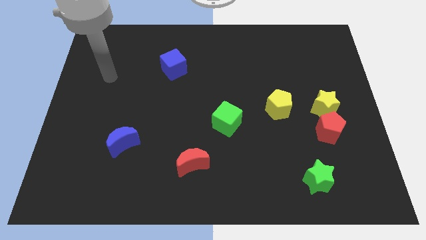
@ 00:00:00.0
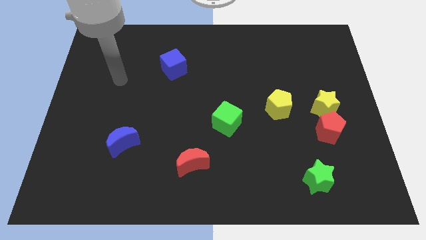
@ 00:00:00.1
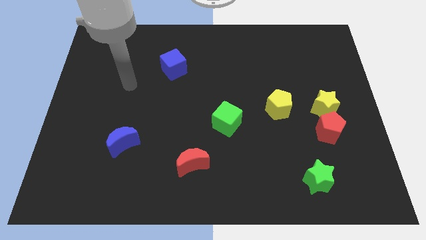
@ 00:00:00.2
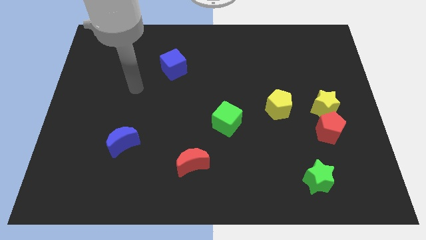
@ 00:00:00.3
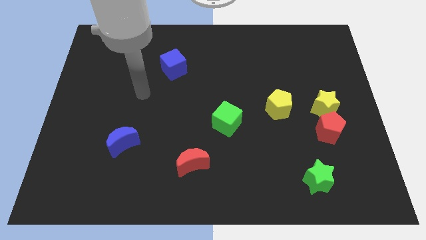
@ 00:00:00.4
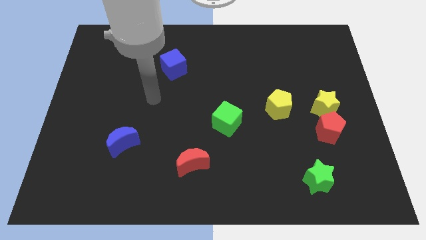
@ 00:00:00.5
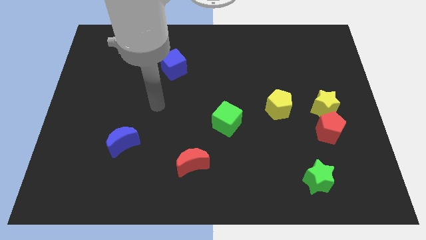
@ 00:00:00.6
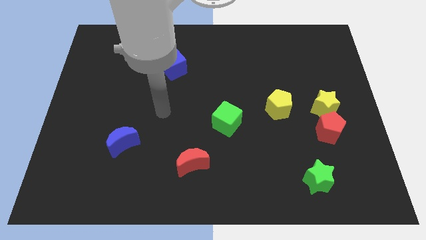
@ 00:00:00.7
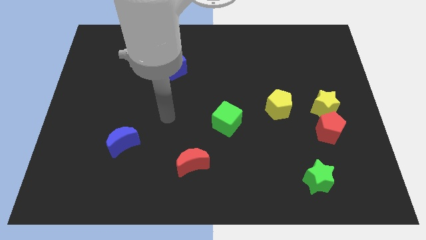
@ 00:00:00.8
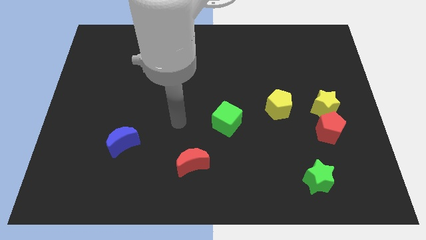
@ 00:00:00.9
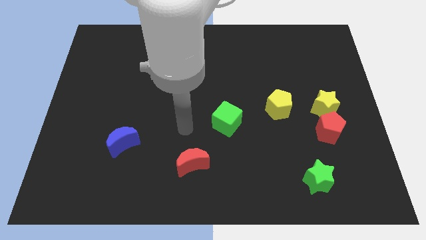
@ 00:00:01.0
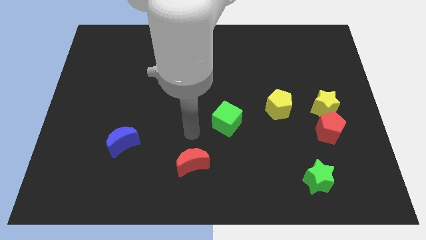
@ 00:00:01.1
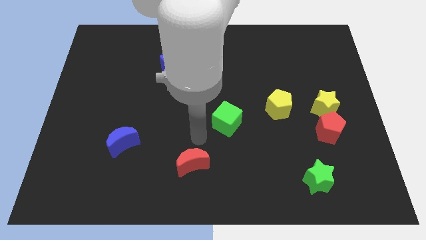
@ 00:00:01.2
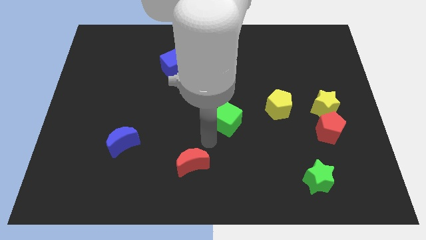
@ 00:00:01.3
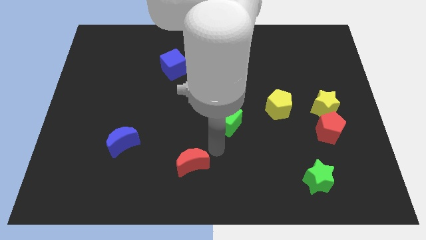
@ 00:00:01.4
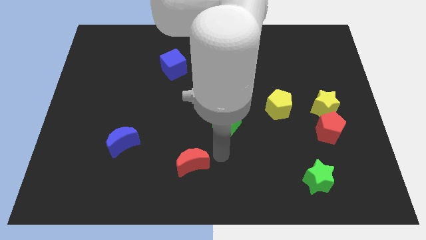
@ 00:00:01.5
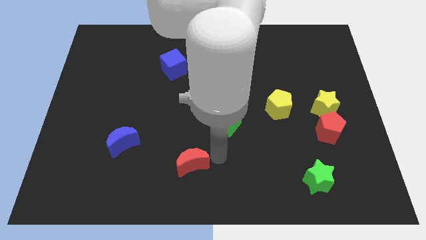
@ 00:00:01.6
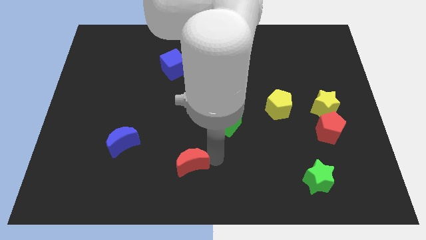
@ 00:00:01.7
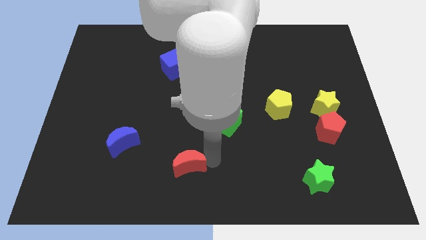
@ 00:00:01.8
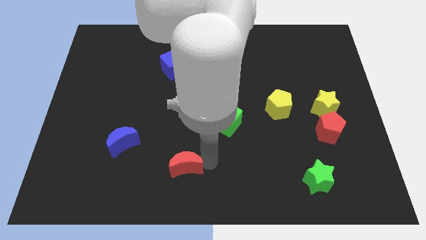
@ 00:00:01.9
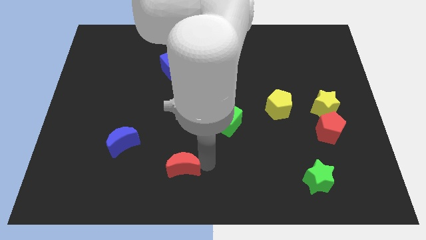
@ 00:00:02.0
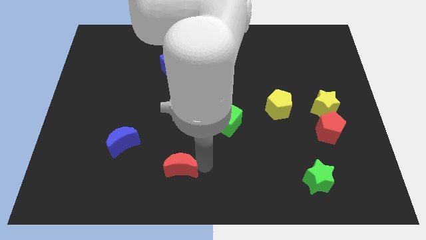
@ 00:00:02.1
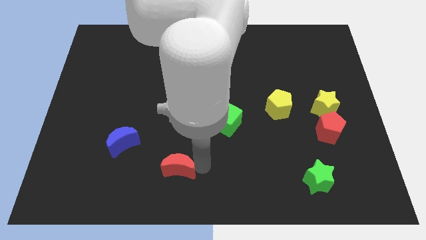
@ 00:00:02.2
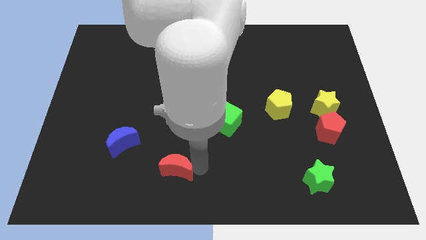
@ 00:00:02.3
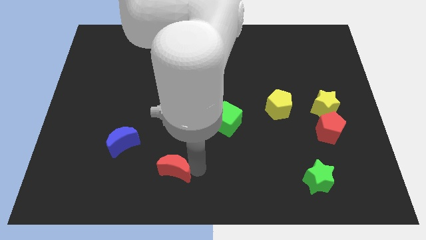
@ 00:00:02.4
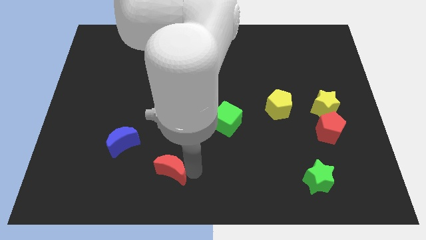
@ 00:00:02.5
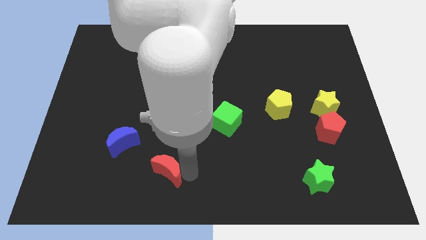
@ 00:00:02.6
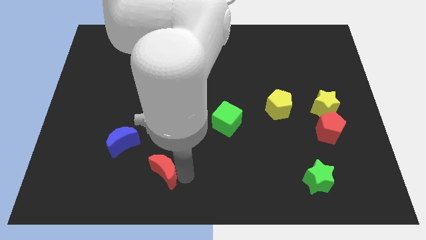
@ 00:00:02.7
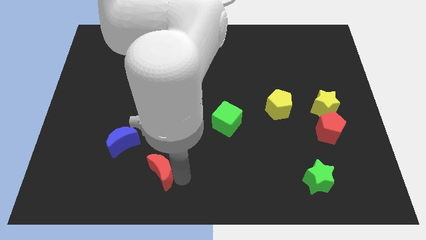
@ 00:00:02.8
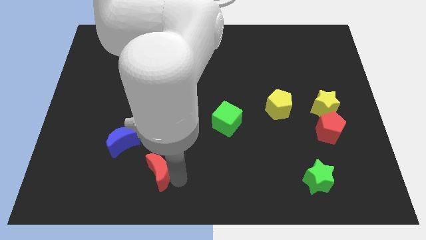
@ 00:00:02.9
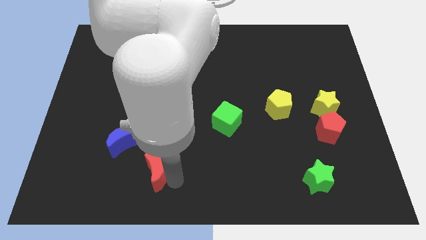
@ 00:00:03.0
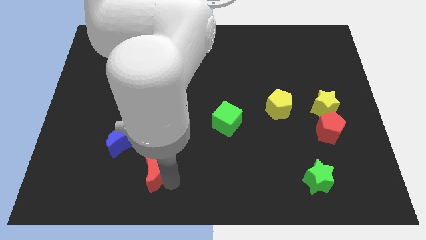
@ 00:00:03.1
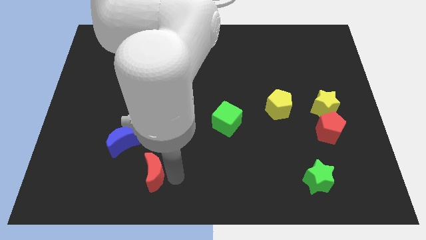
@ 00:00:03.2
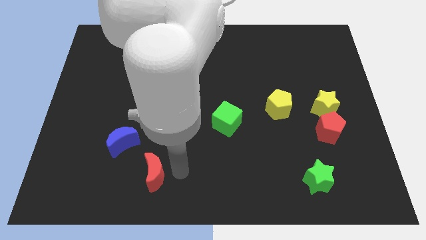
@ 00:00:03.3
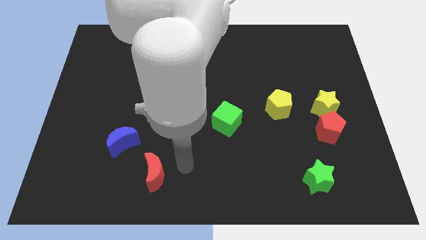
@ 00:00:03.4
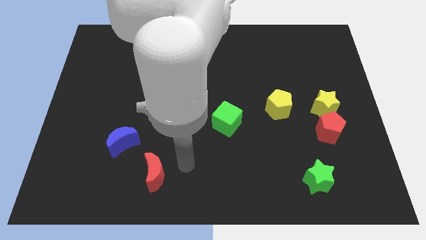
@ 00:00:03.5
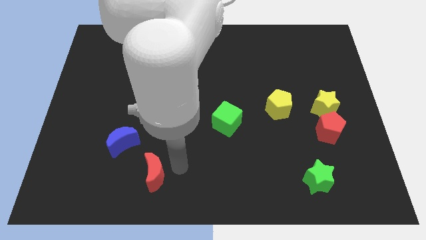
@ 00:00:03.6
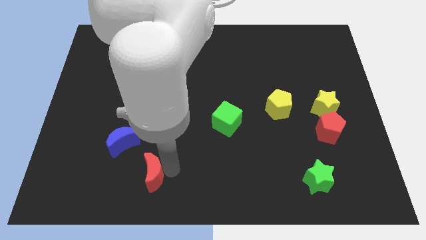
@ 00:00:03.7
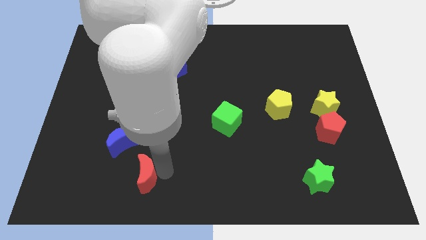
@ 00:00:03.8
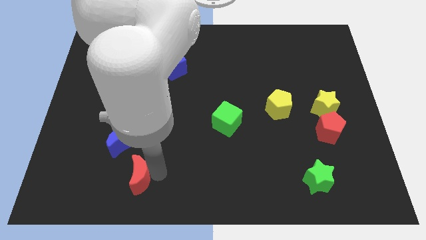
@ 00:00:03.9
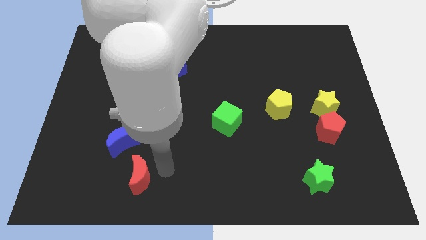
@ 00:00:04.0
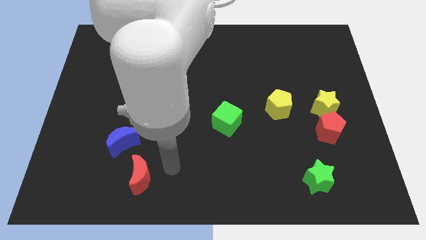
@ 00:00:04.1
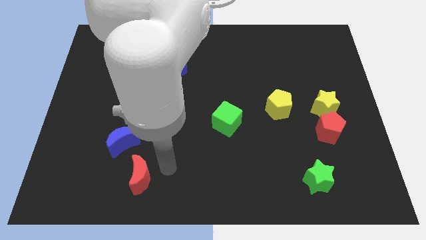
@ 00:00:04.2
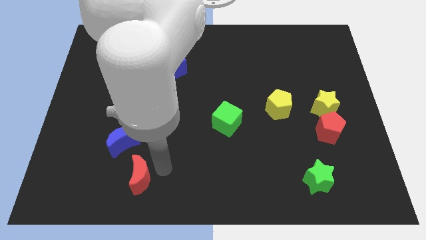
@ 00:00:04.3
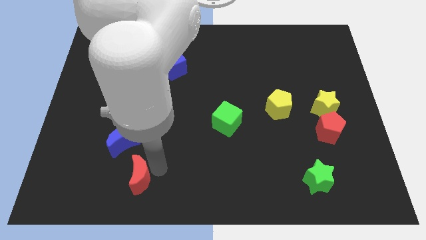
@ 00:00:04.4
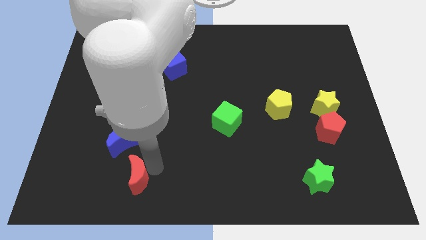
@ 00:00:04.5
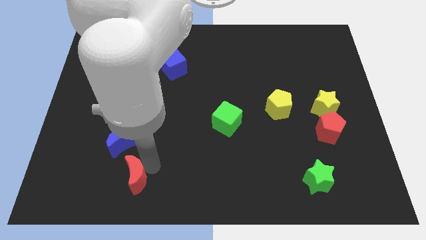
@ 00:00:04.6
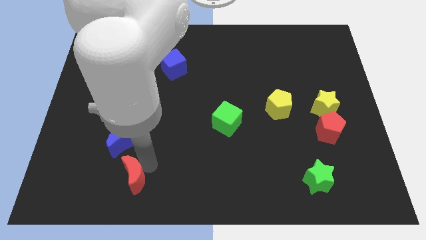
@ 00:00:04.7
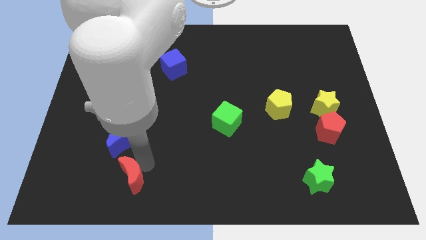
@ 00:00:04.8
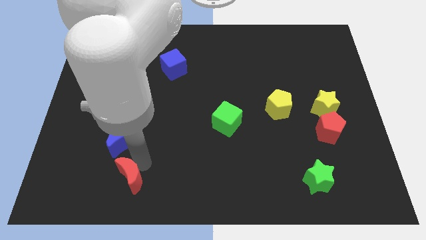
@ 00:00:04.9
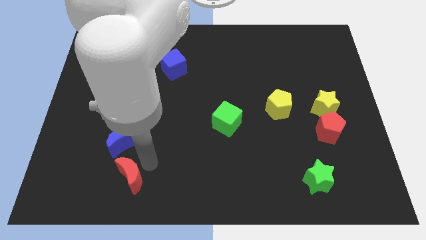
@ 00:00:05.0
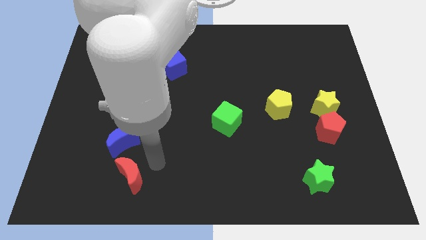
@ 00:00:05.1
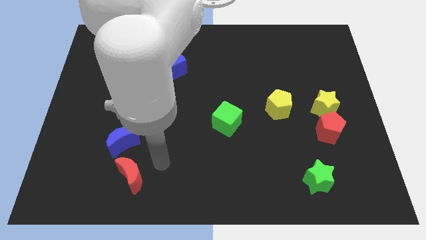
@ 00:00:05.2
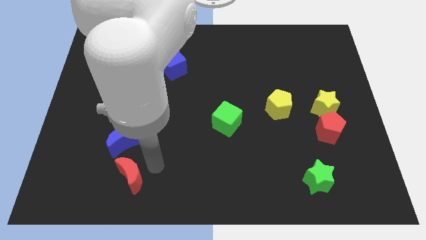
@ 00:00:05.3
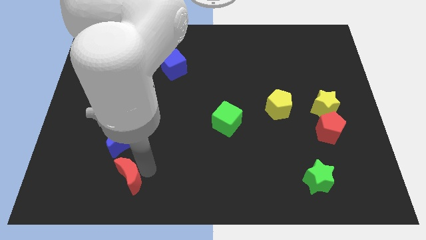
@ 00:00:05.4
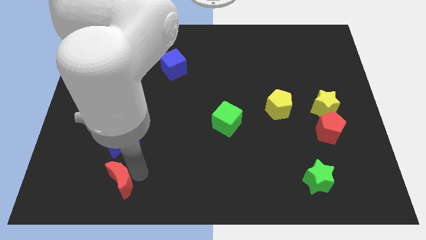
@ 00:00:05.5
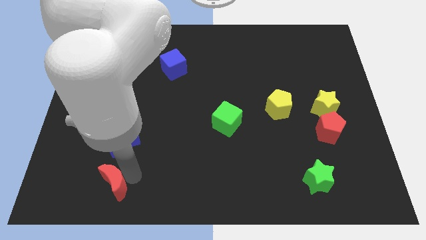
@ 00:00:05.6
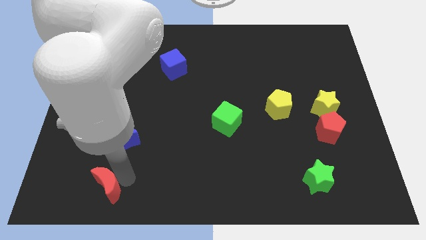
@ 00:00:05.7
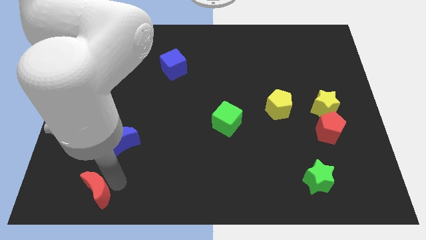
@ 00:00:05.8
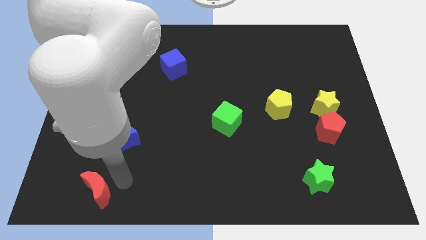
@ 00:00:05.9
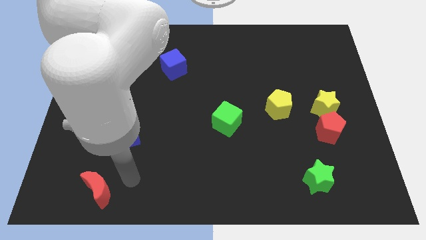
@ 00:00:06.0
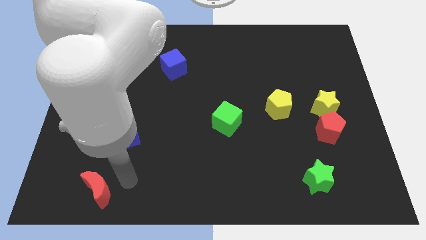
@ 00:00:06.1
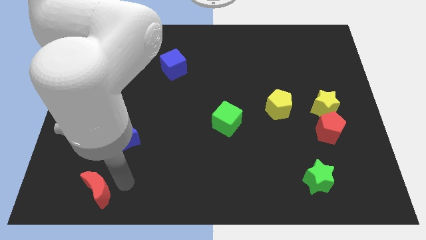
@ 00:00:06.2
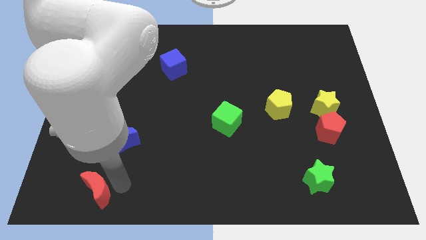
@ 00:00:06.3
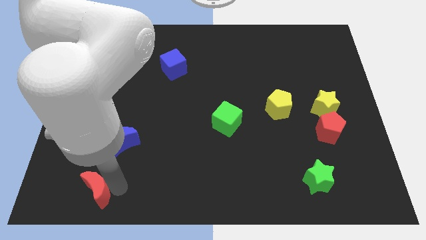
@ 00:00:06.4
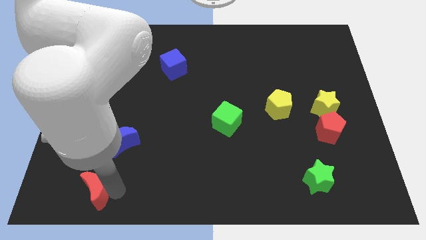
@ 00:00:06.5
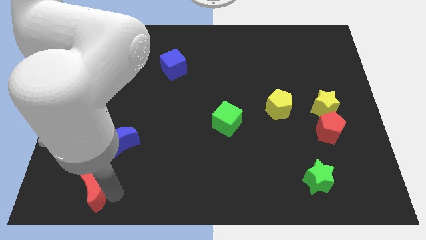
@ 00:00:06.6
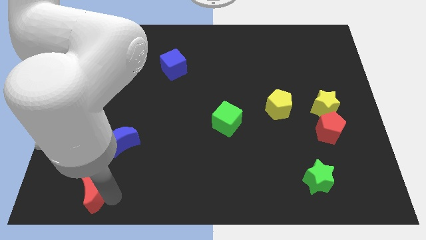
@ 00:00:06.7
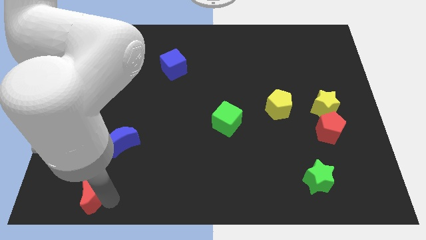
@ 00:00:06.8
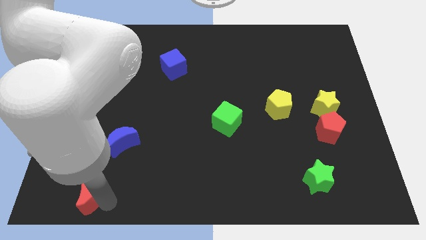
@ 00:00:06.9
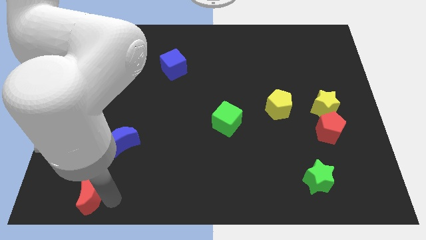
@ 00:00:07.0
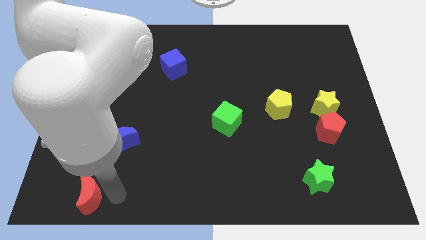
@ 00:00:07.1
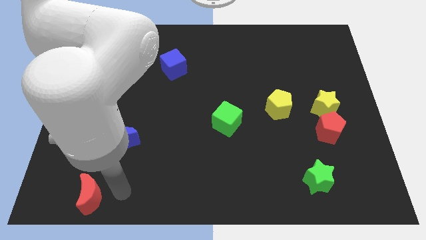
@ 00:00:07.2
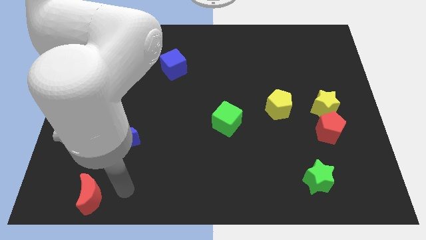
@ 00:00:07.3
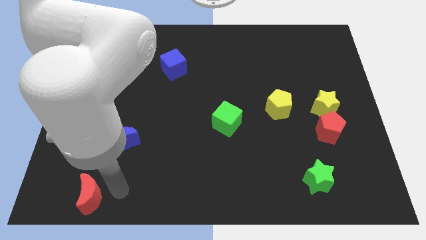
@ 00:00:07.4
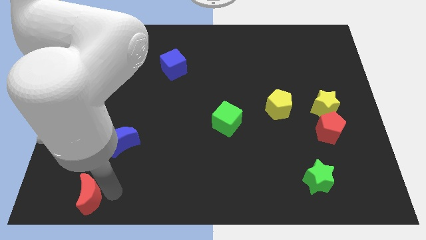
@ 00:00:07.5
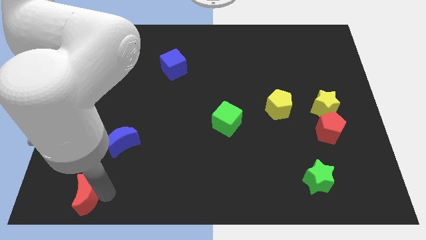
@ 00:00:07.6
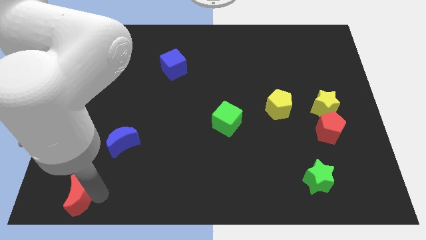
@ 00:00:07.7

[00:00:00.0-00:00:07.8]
put the red moon to the bottom left
